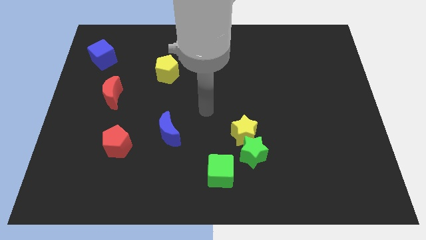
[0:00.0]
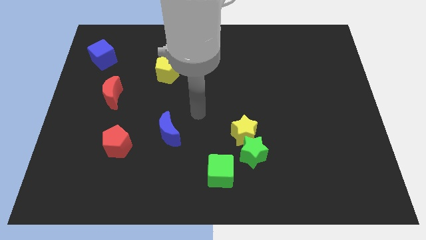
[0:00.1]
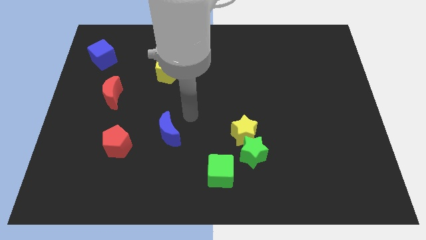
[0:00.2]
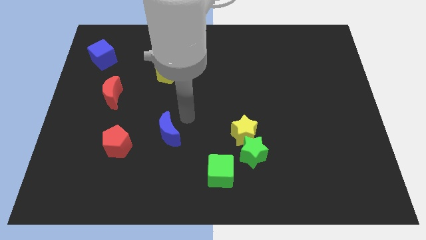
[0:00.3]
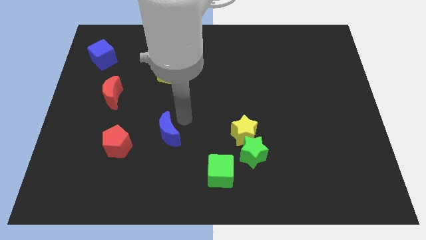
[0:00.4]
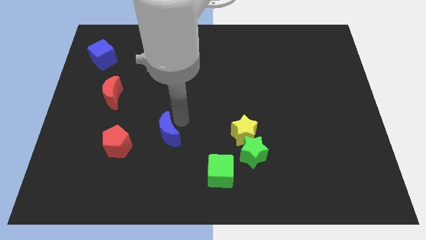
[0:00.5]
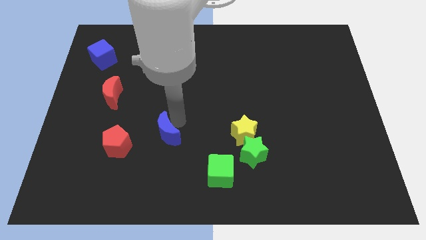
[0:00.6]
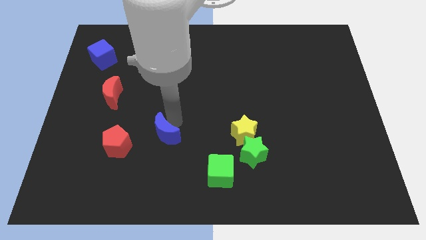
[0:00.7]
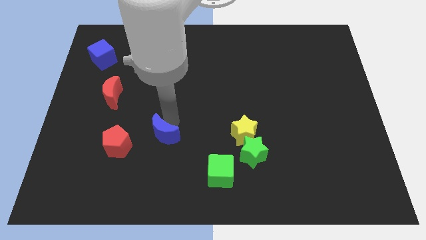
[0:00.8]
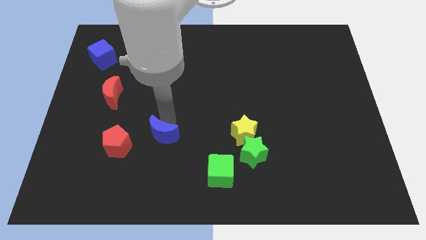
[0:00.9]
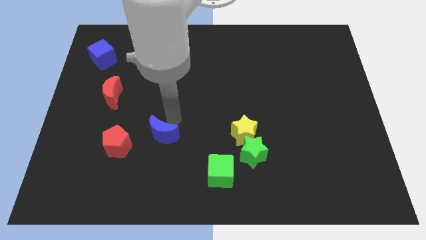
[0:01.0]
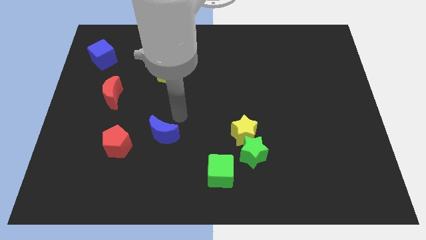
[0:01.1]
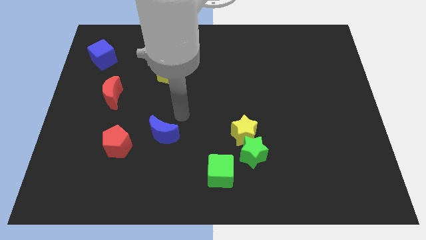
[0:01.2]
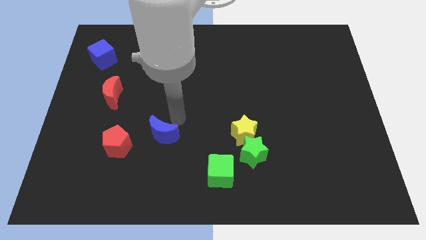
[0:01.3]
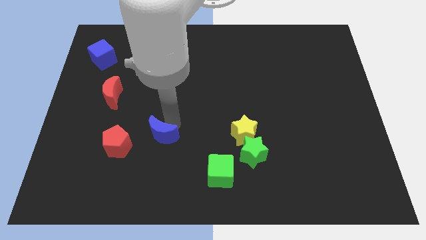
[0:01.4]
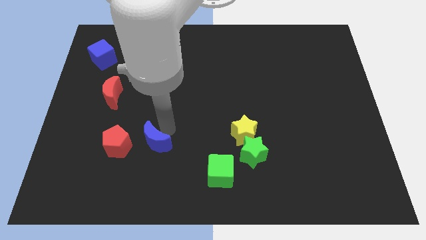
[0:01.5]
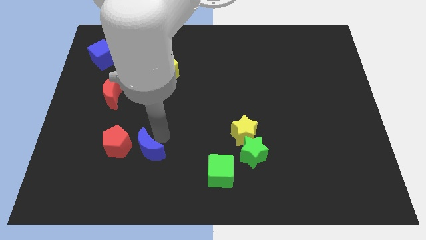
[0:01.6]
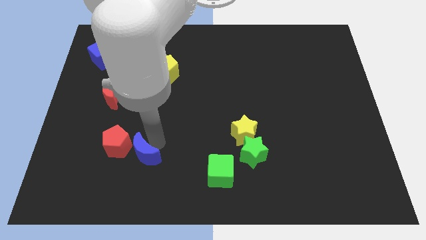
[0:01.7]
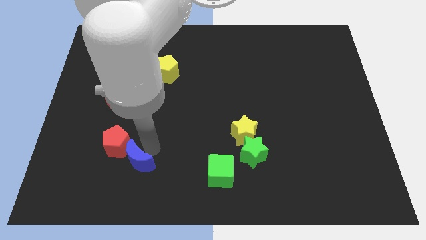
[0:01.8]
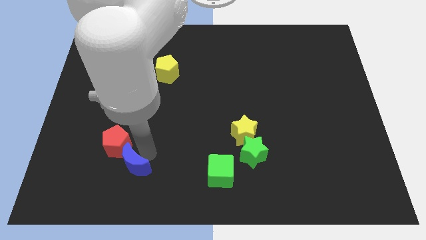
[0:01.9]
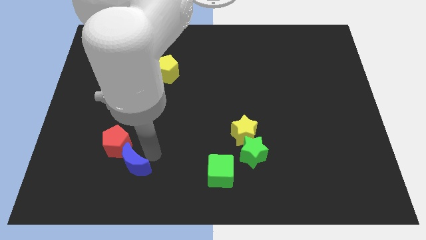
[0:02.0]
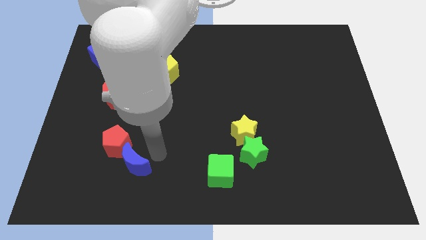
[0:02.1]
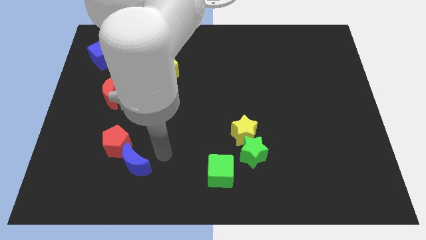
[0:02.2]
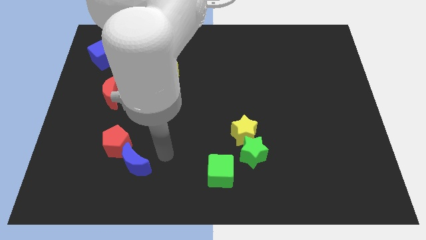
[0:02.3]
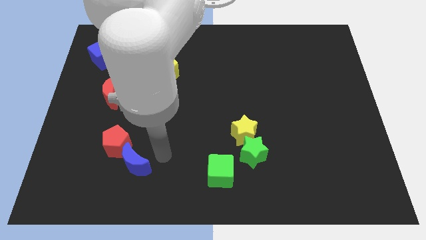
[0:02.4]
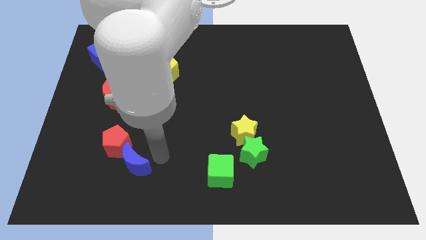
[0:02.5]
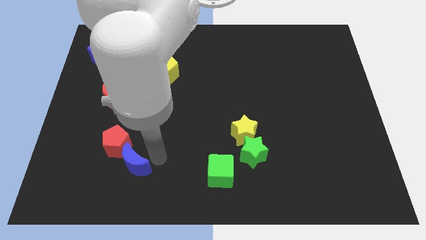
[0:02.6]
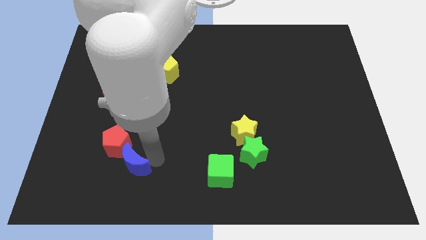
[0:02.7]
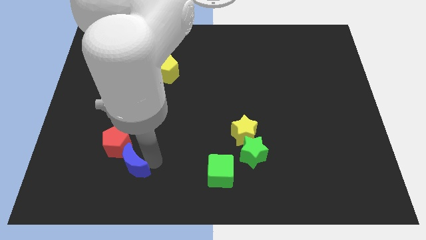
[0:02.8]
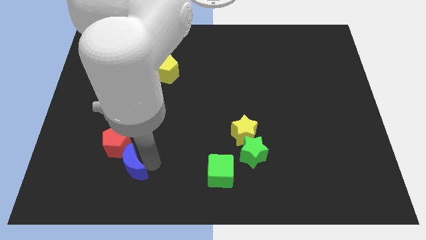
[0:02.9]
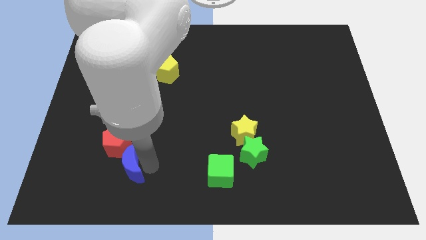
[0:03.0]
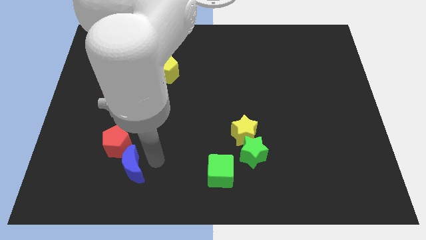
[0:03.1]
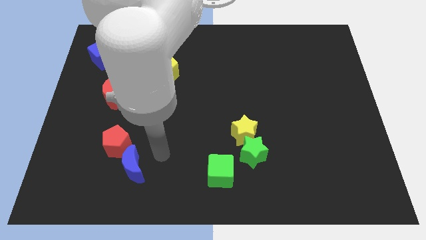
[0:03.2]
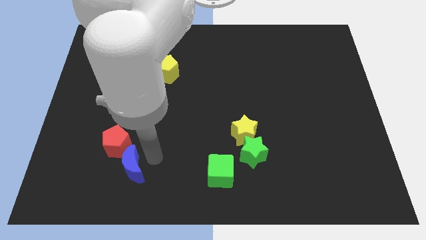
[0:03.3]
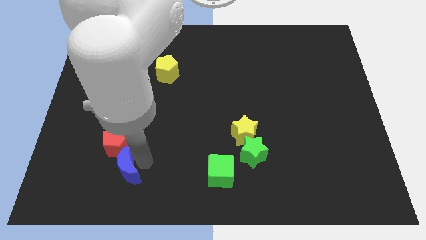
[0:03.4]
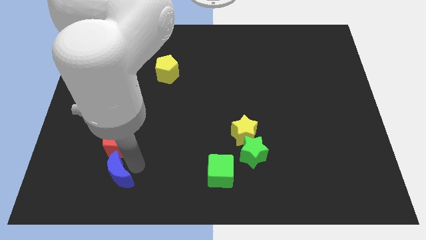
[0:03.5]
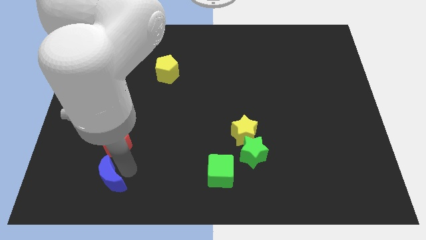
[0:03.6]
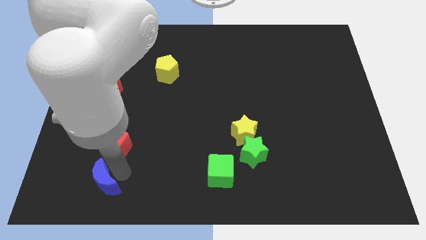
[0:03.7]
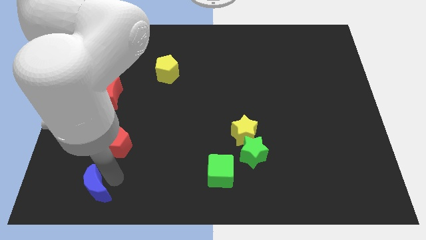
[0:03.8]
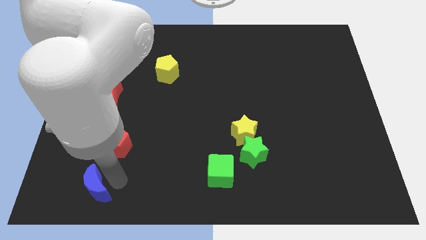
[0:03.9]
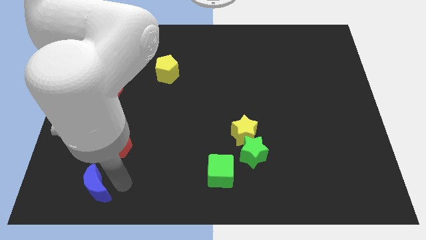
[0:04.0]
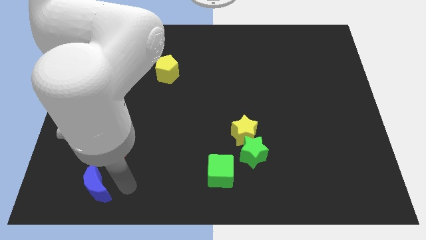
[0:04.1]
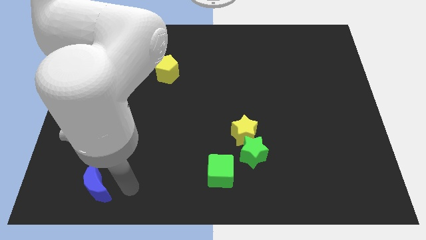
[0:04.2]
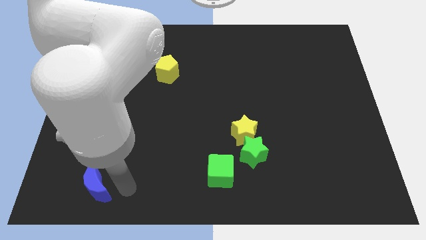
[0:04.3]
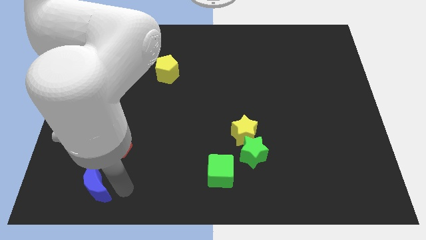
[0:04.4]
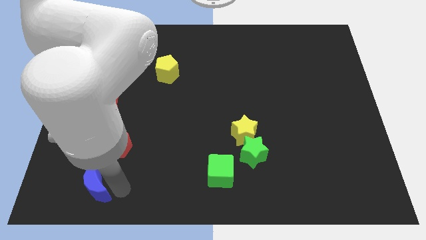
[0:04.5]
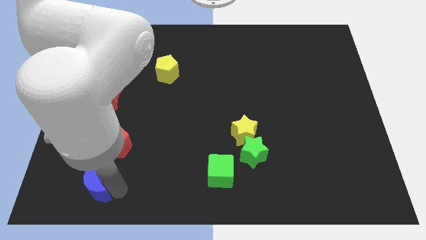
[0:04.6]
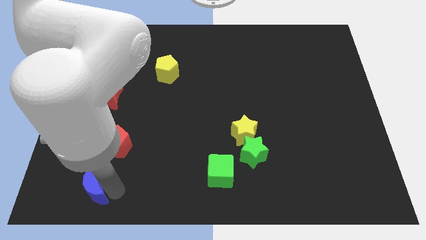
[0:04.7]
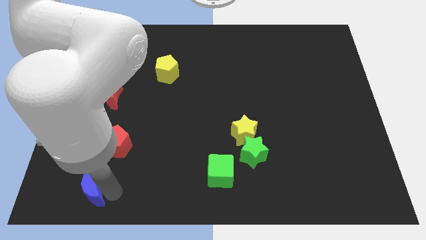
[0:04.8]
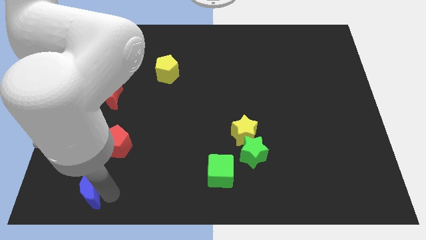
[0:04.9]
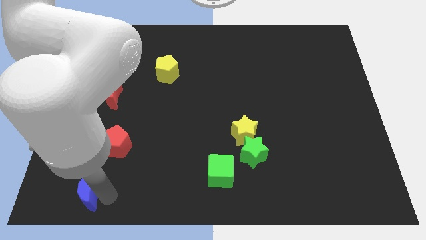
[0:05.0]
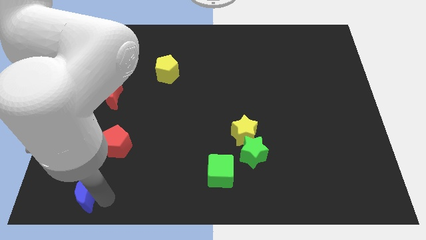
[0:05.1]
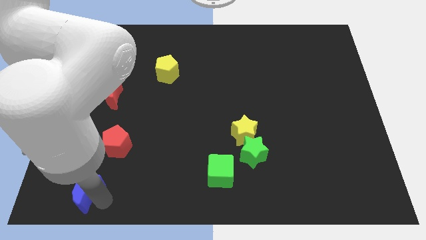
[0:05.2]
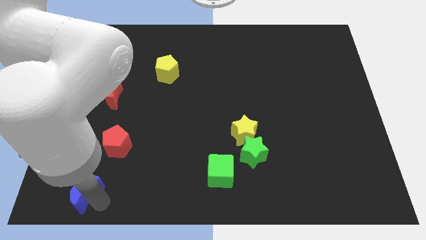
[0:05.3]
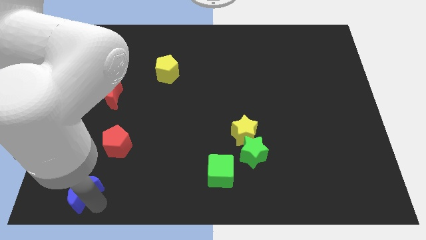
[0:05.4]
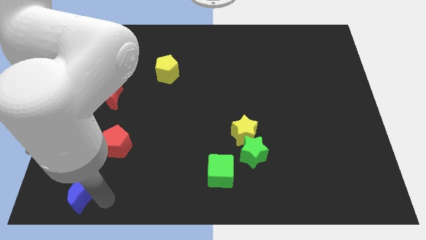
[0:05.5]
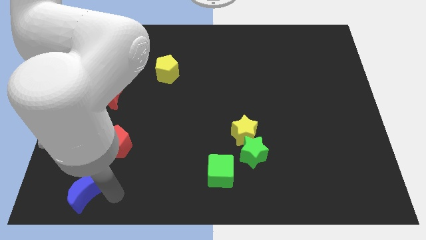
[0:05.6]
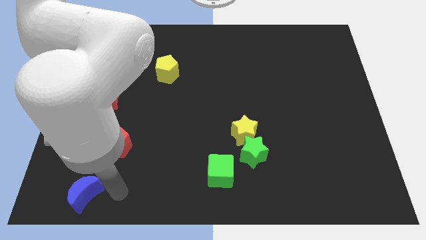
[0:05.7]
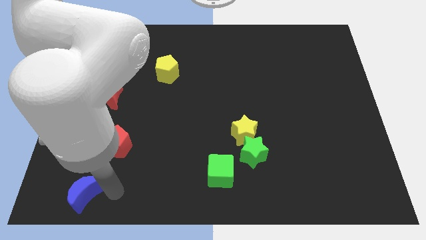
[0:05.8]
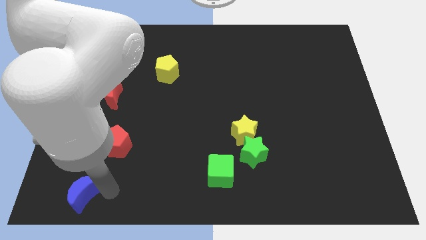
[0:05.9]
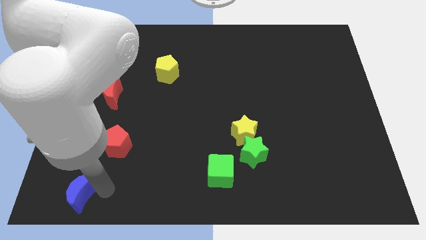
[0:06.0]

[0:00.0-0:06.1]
move the blue moon to the lower left corner
